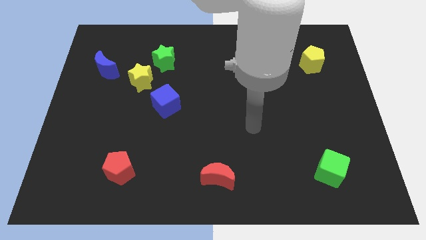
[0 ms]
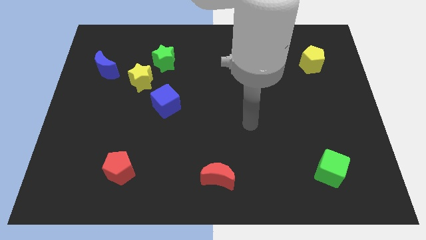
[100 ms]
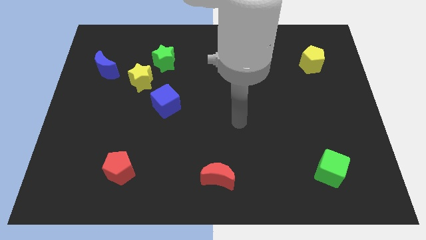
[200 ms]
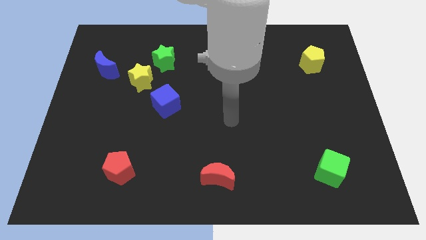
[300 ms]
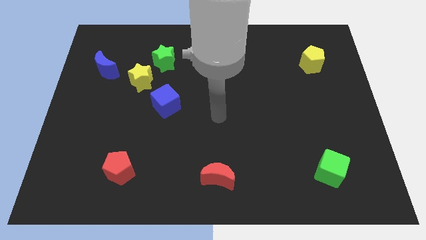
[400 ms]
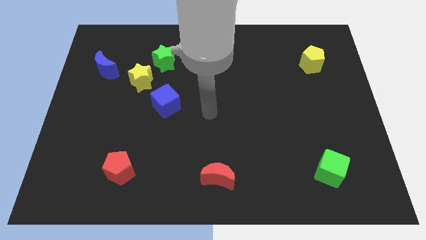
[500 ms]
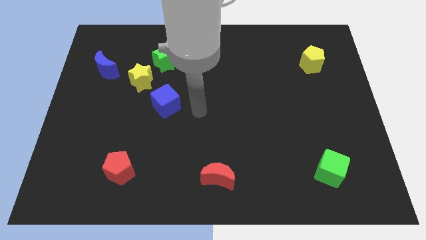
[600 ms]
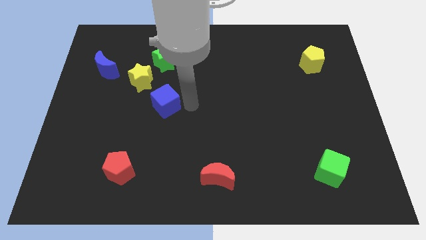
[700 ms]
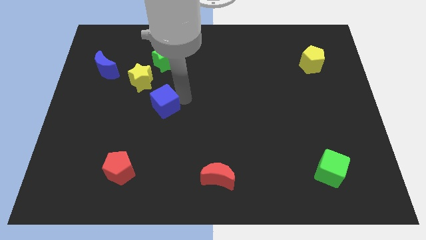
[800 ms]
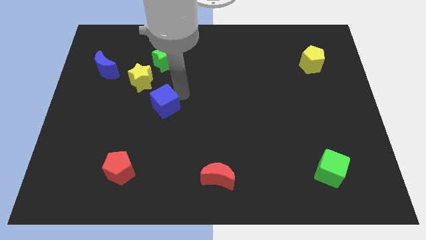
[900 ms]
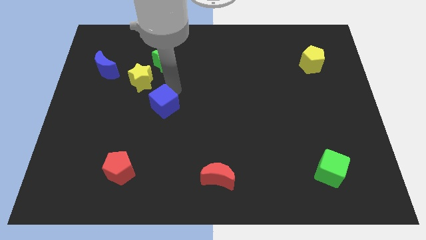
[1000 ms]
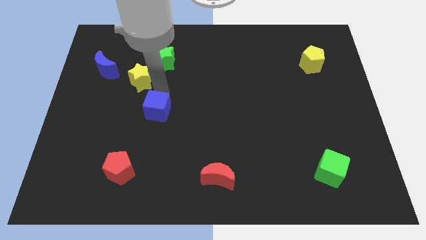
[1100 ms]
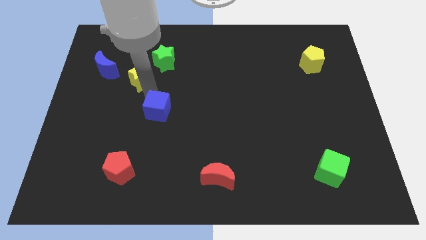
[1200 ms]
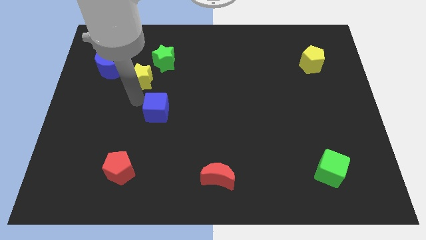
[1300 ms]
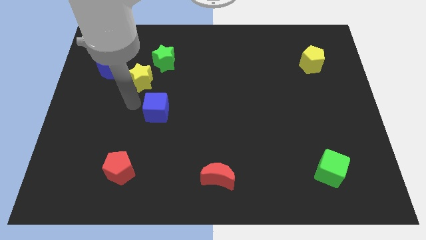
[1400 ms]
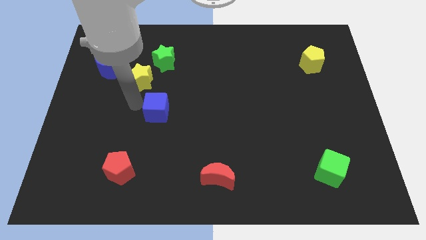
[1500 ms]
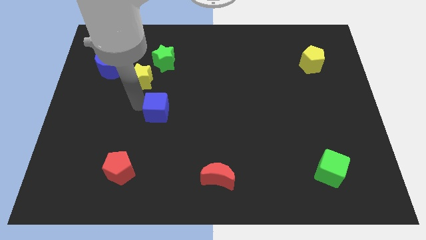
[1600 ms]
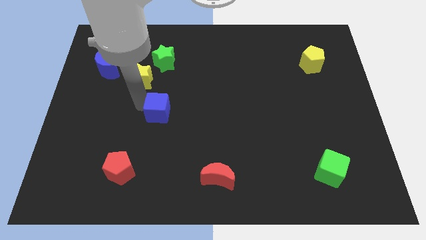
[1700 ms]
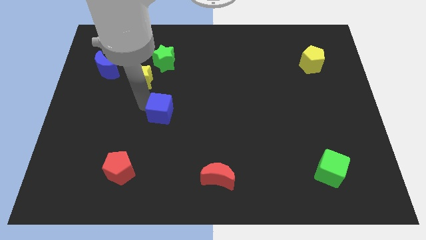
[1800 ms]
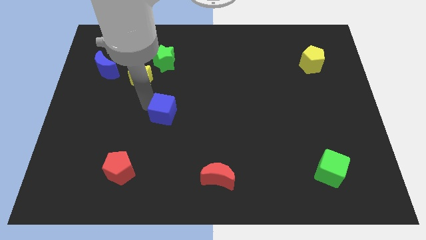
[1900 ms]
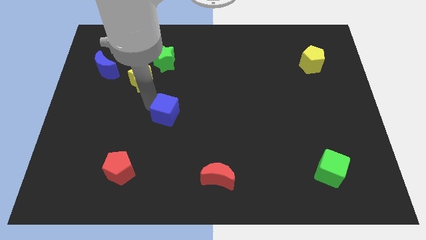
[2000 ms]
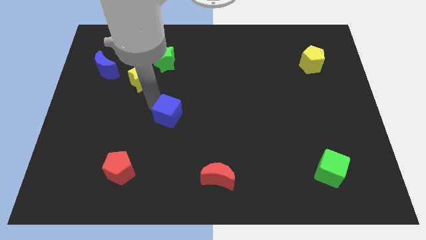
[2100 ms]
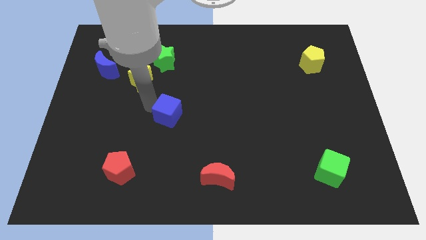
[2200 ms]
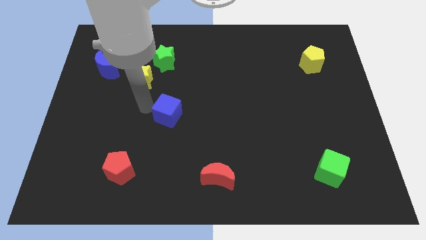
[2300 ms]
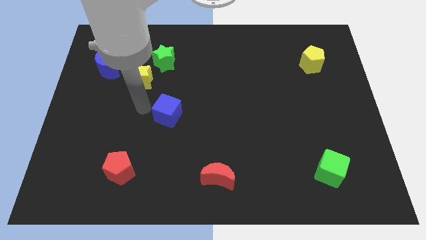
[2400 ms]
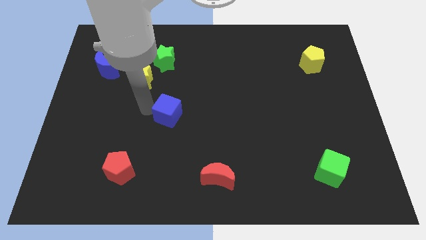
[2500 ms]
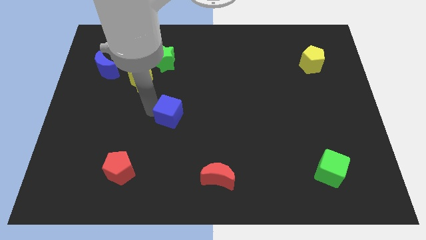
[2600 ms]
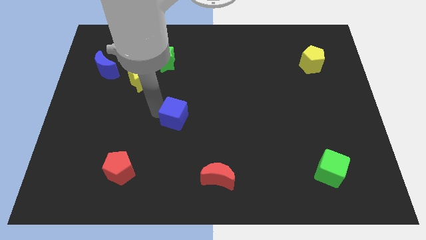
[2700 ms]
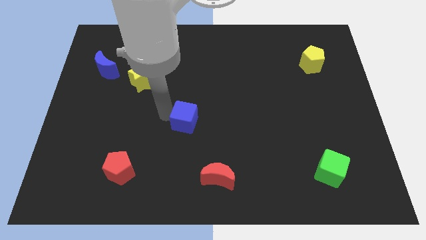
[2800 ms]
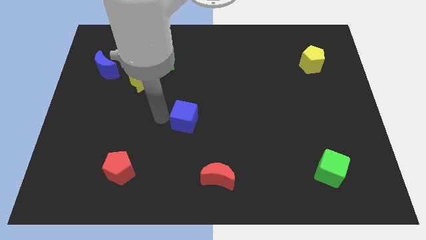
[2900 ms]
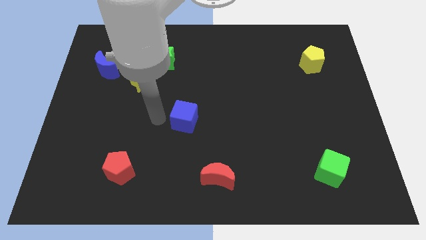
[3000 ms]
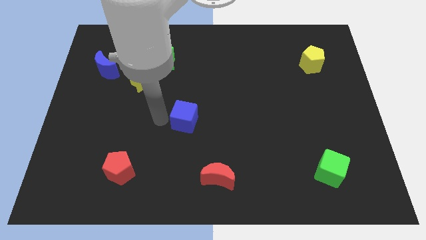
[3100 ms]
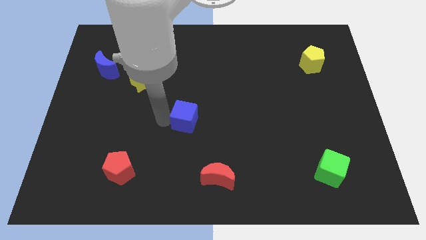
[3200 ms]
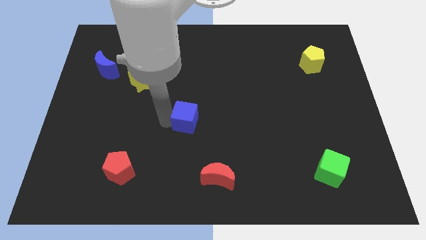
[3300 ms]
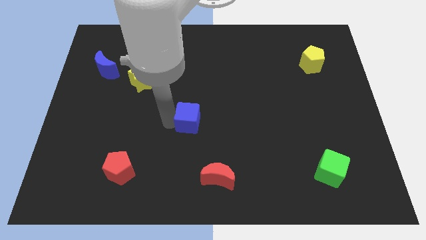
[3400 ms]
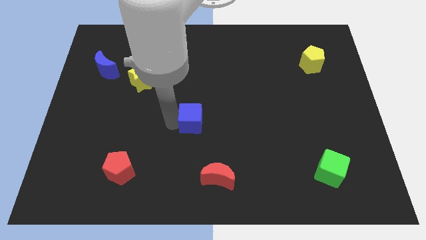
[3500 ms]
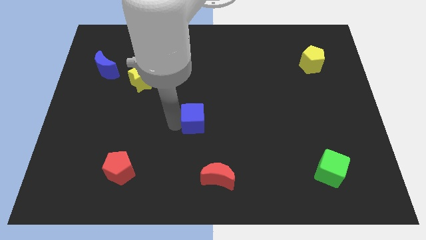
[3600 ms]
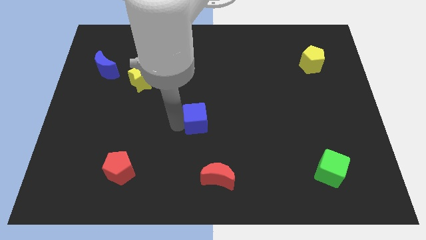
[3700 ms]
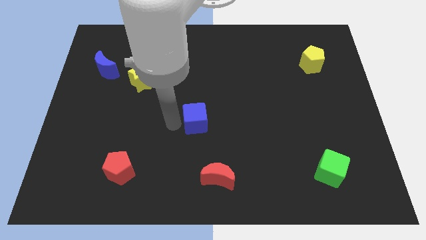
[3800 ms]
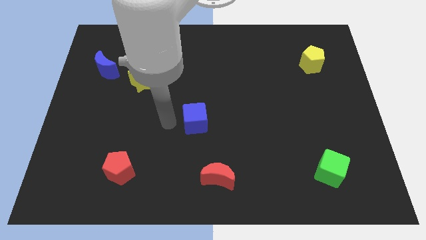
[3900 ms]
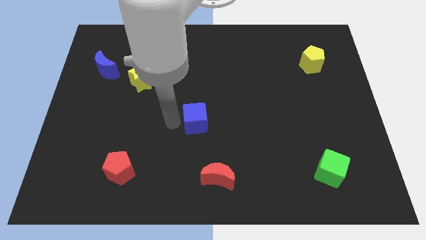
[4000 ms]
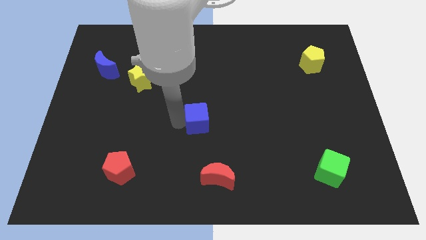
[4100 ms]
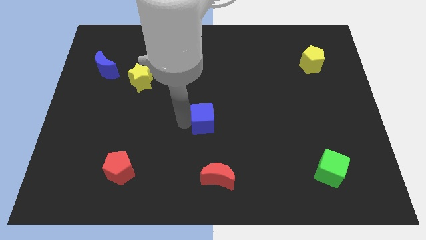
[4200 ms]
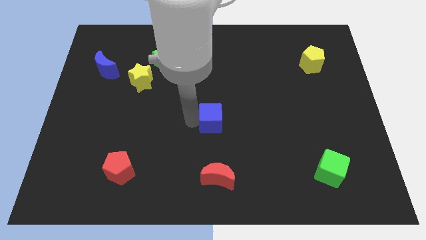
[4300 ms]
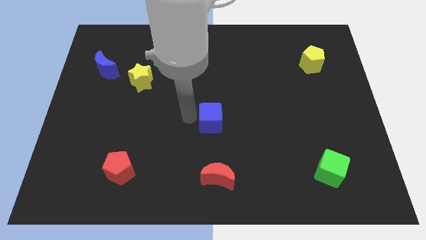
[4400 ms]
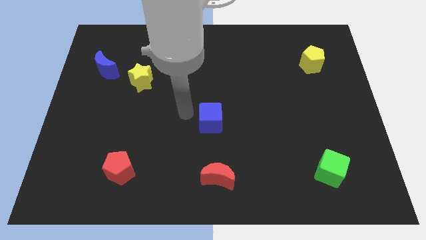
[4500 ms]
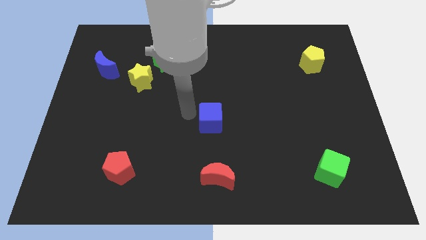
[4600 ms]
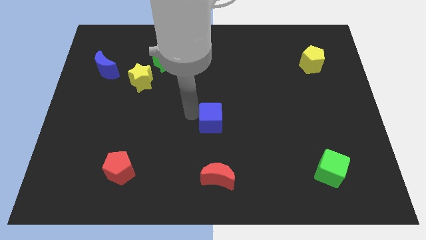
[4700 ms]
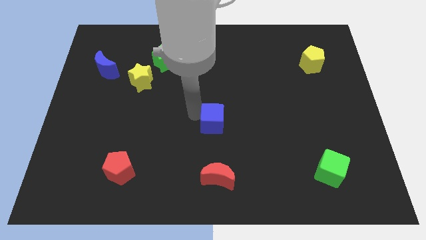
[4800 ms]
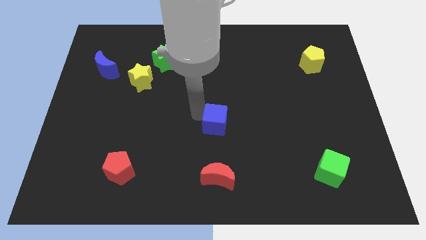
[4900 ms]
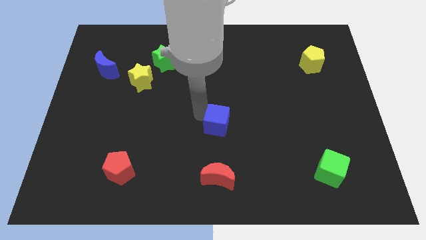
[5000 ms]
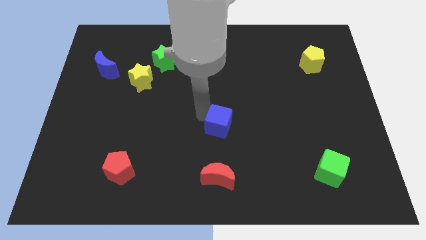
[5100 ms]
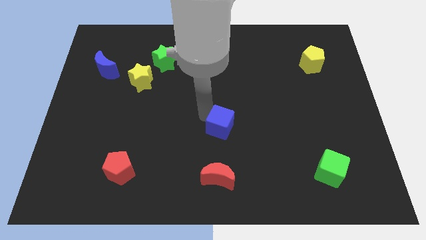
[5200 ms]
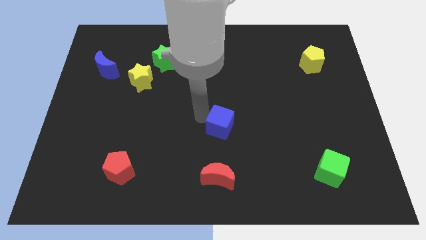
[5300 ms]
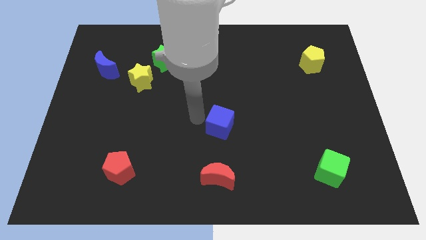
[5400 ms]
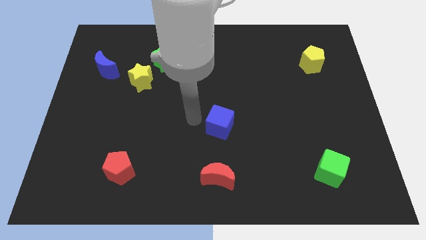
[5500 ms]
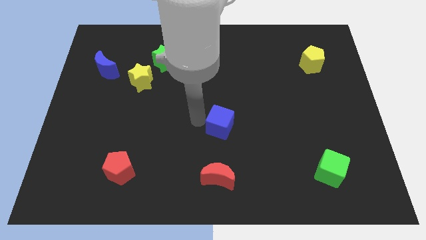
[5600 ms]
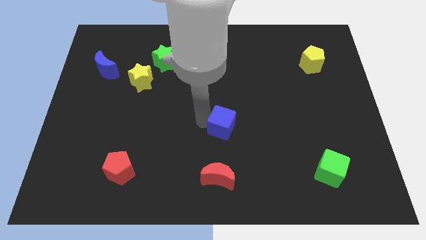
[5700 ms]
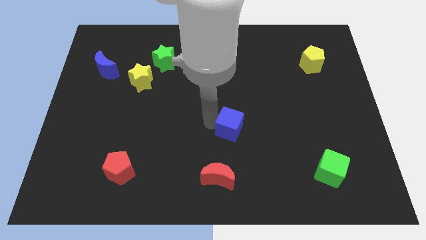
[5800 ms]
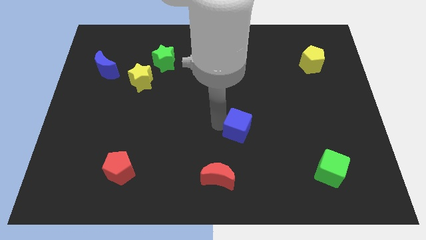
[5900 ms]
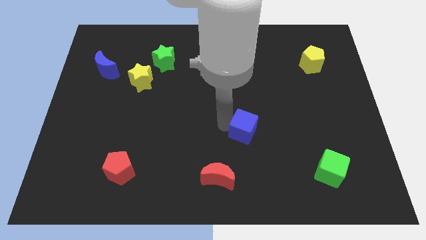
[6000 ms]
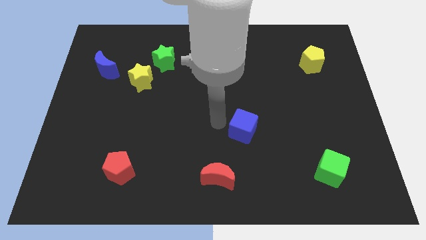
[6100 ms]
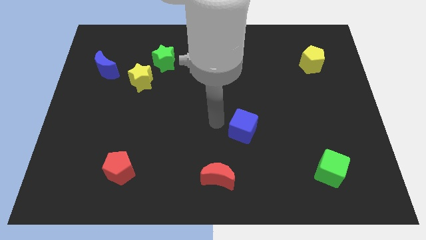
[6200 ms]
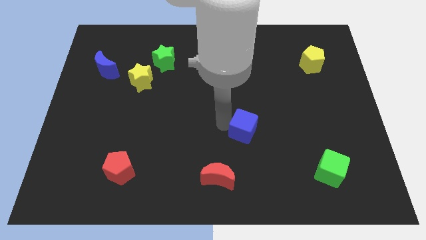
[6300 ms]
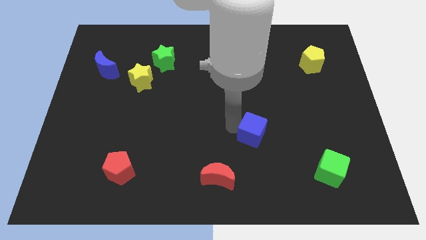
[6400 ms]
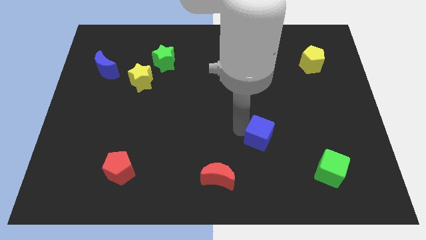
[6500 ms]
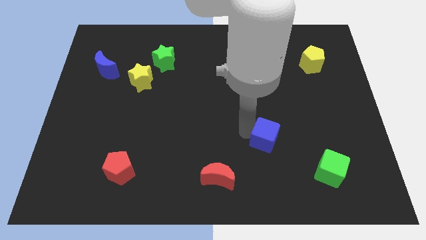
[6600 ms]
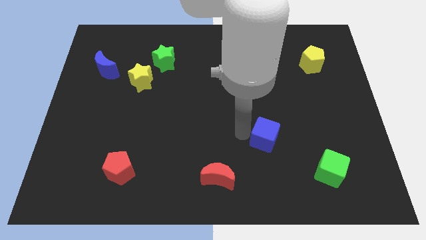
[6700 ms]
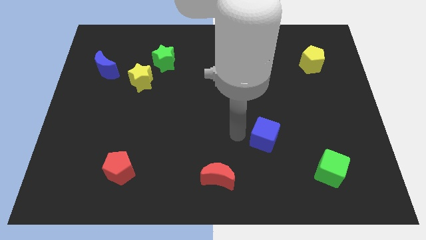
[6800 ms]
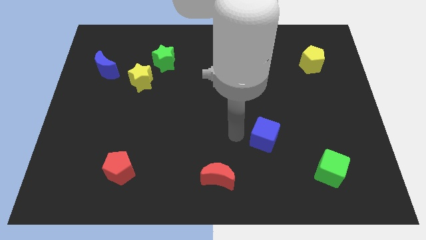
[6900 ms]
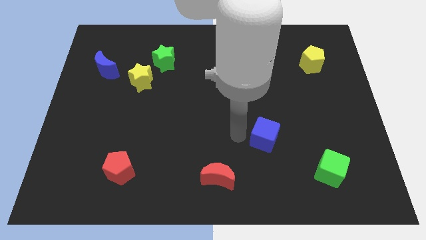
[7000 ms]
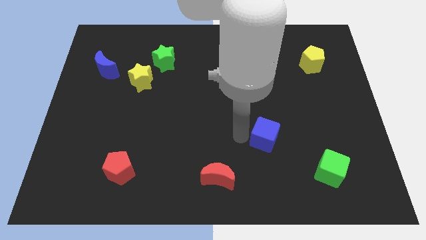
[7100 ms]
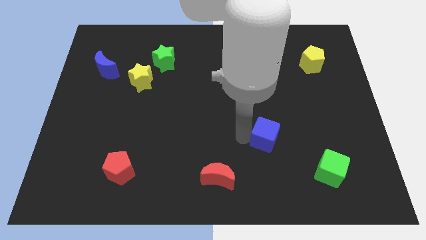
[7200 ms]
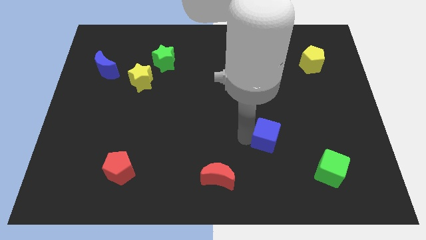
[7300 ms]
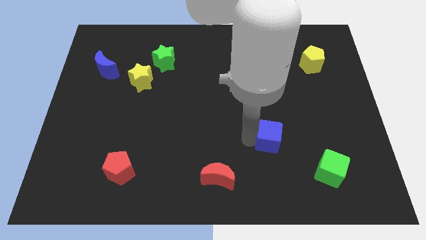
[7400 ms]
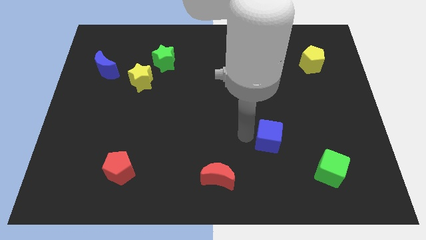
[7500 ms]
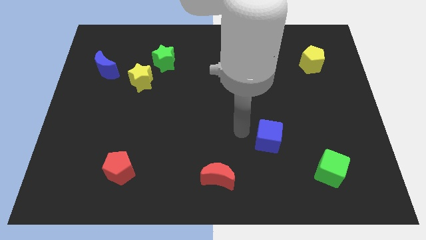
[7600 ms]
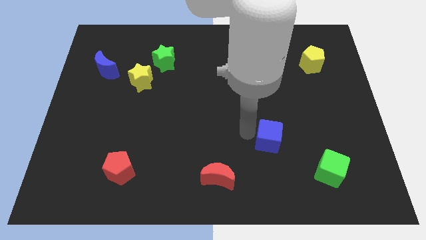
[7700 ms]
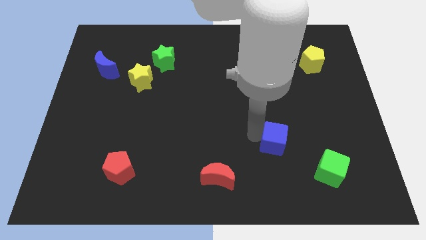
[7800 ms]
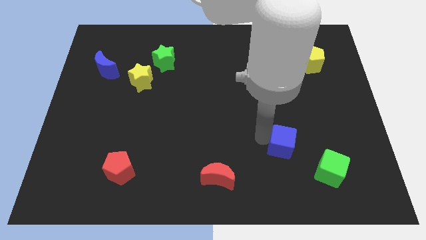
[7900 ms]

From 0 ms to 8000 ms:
move the blue cube diagonally up and to the left of the green cube

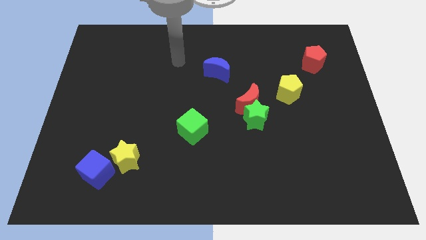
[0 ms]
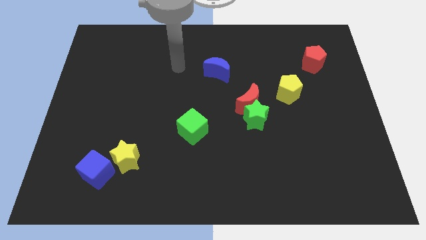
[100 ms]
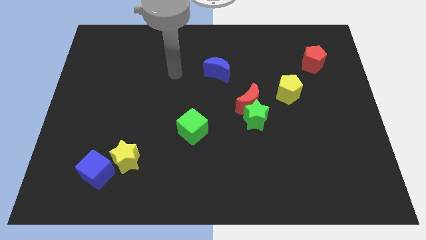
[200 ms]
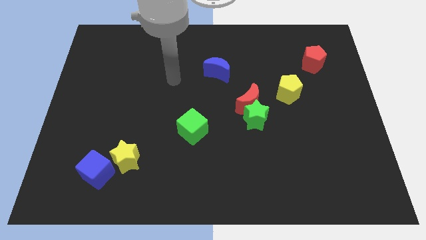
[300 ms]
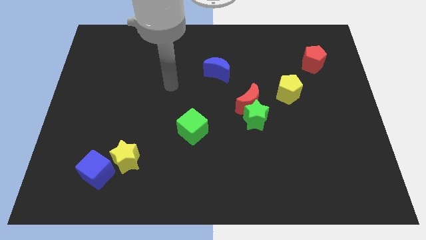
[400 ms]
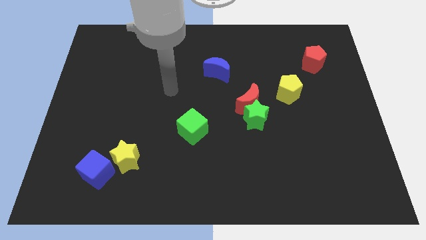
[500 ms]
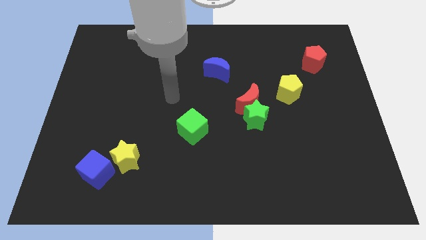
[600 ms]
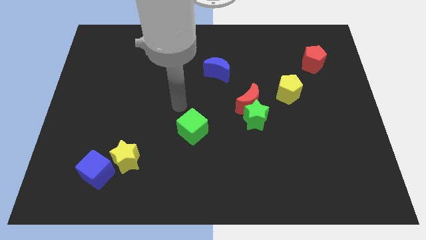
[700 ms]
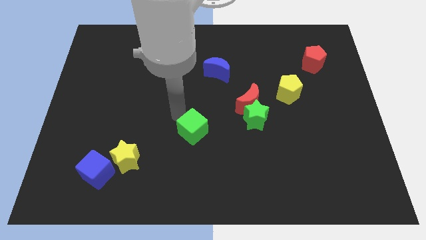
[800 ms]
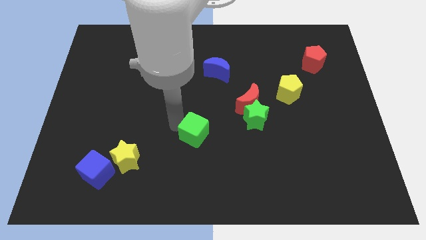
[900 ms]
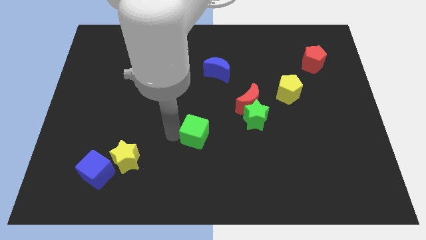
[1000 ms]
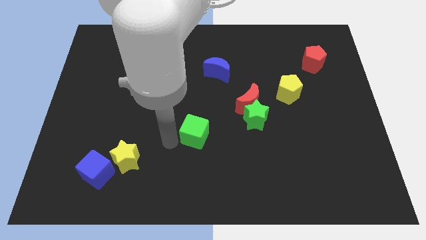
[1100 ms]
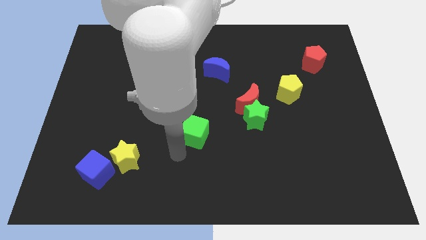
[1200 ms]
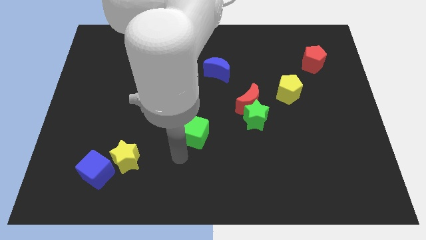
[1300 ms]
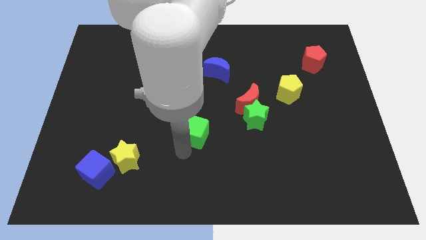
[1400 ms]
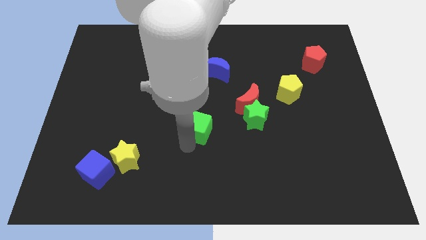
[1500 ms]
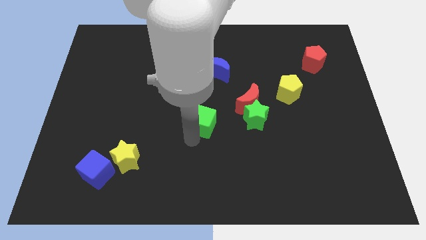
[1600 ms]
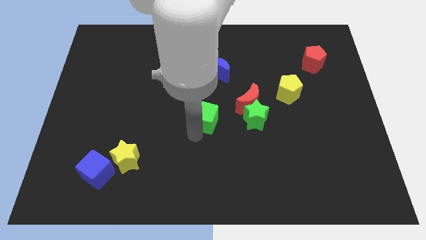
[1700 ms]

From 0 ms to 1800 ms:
push the green cube to the bottom side of the blue moon
